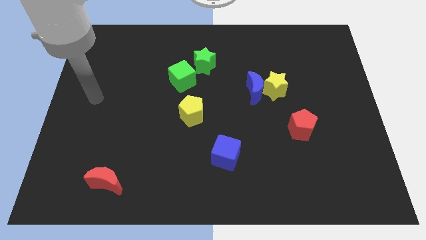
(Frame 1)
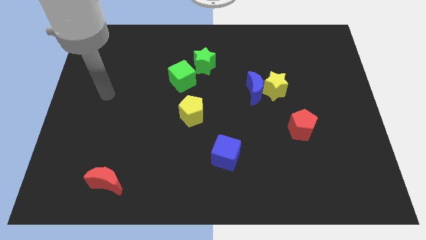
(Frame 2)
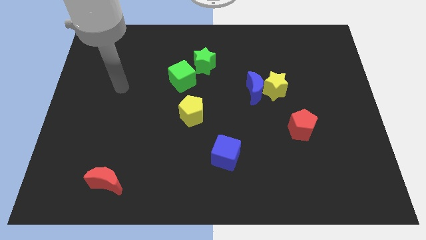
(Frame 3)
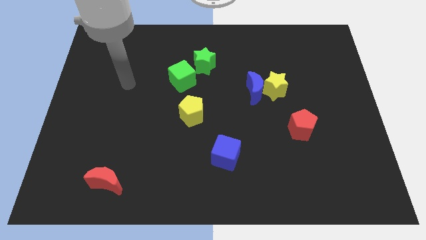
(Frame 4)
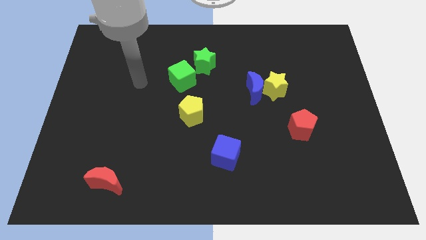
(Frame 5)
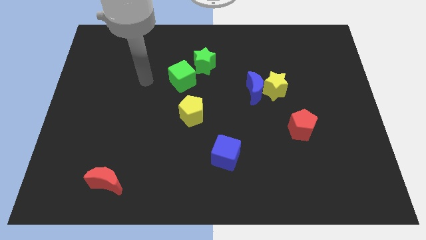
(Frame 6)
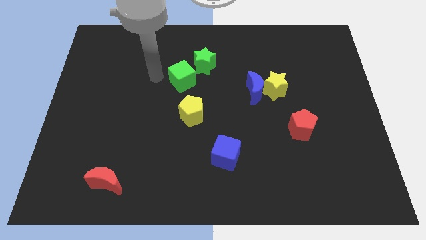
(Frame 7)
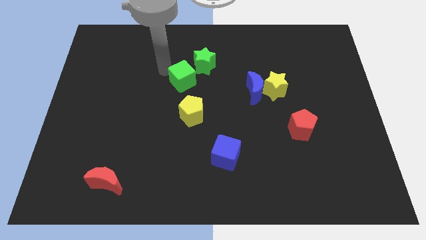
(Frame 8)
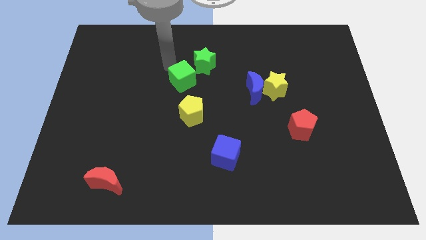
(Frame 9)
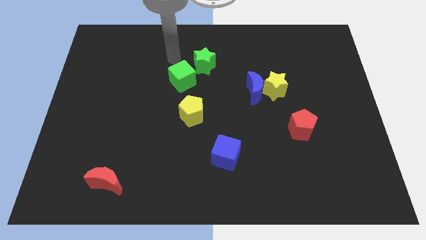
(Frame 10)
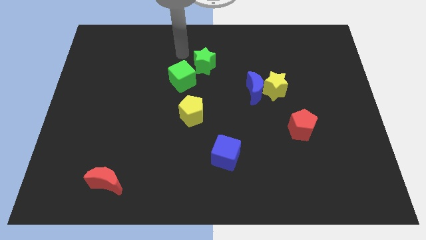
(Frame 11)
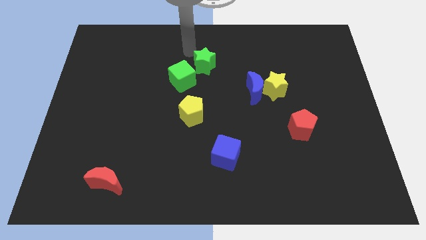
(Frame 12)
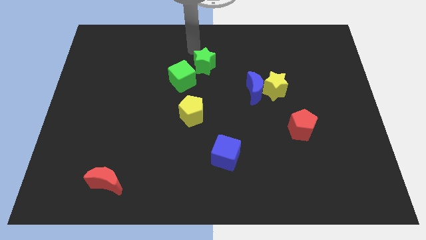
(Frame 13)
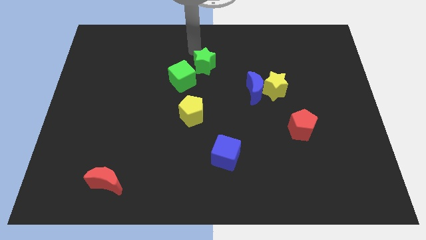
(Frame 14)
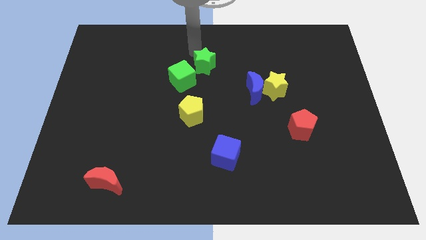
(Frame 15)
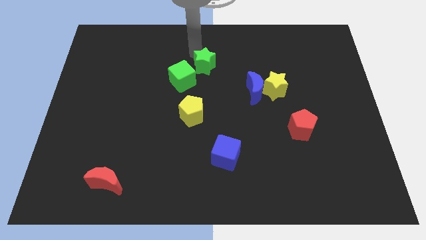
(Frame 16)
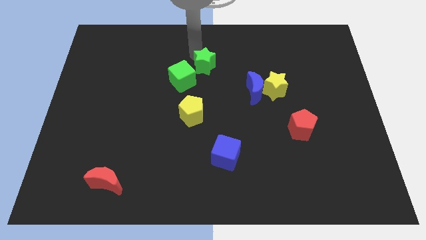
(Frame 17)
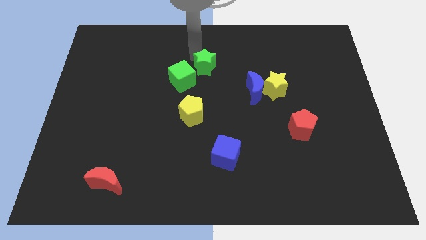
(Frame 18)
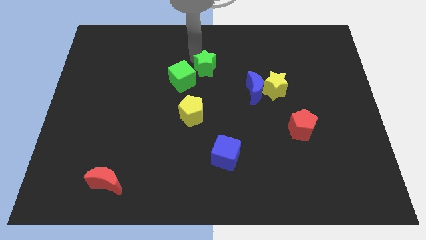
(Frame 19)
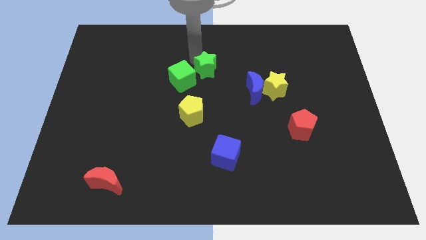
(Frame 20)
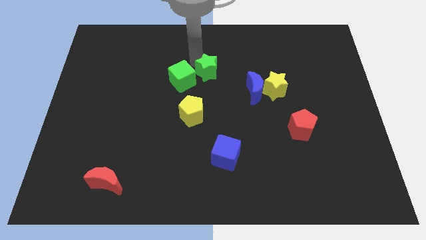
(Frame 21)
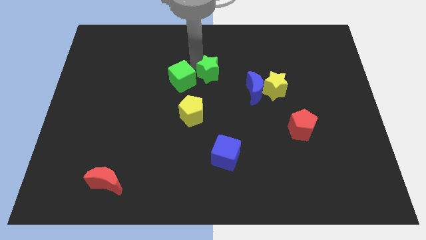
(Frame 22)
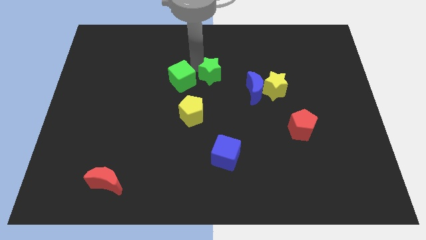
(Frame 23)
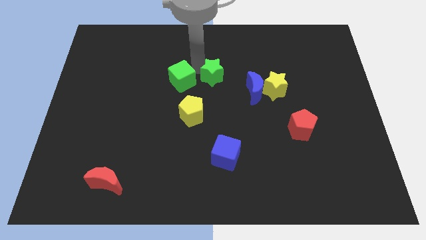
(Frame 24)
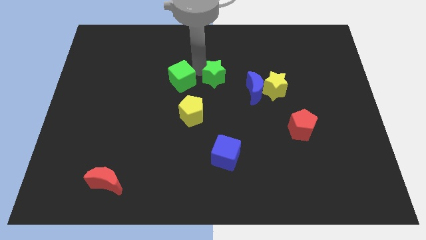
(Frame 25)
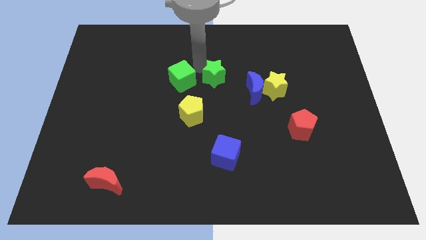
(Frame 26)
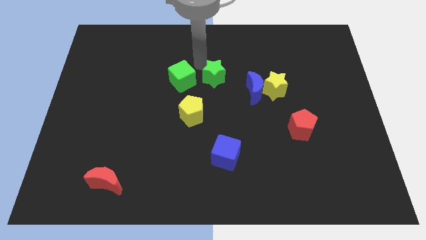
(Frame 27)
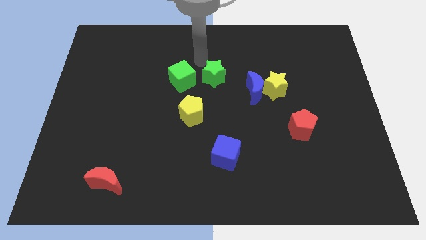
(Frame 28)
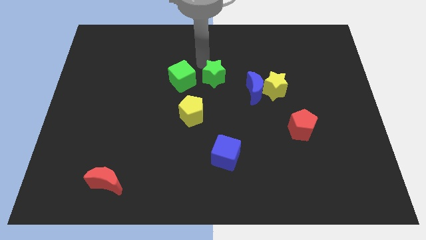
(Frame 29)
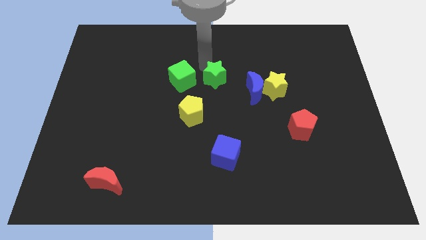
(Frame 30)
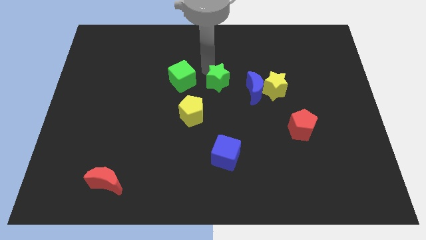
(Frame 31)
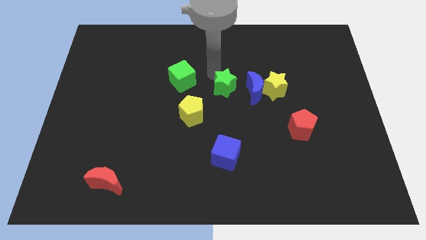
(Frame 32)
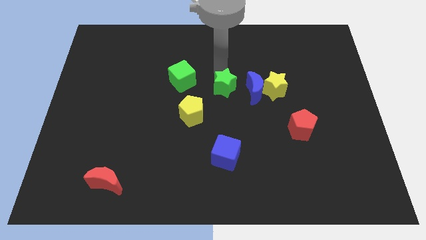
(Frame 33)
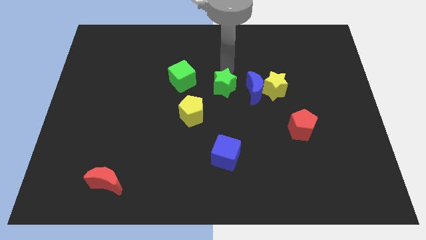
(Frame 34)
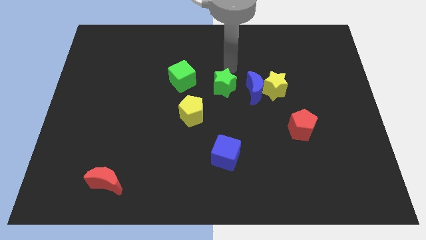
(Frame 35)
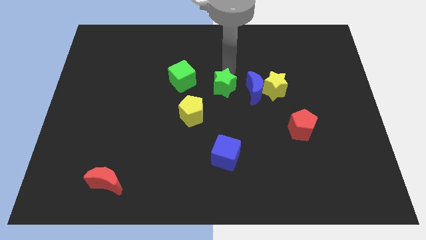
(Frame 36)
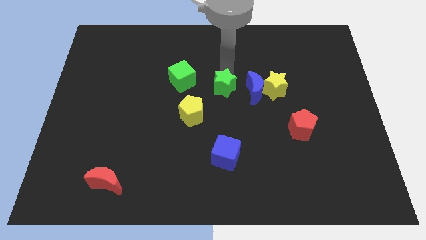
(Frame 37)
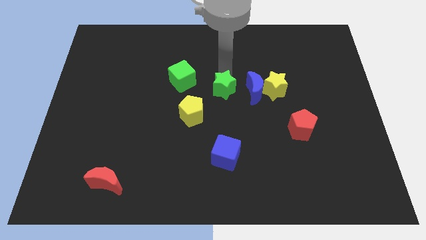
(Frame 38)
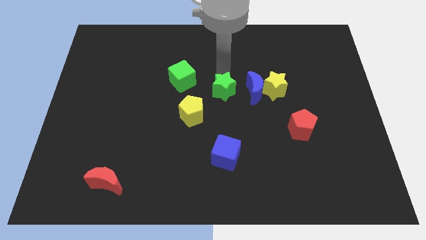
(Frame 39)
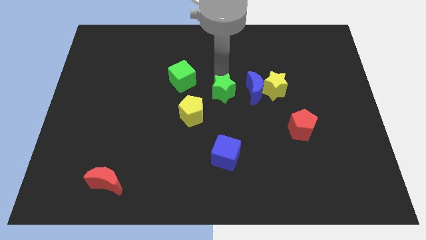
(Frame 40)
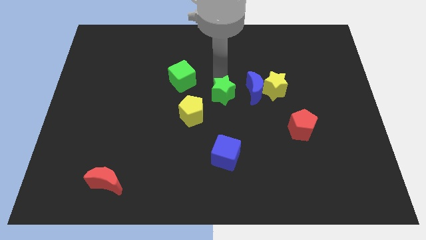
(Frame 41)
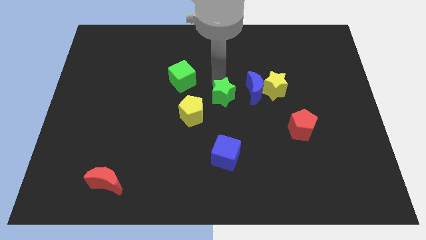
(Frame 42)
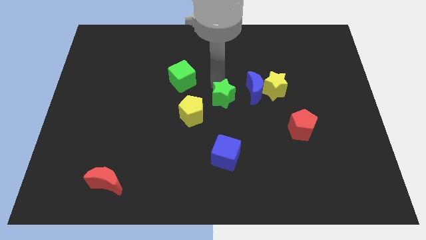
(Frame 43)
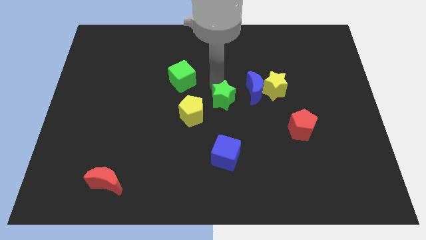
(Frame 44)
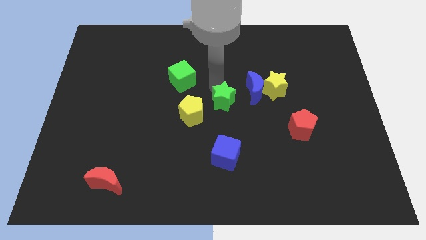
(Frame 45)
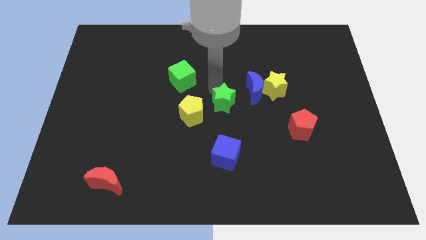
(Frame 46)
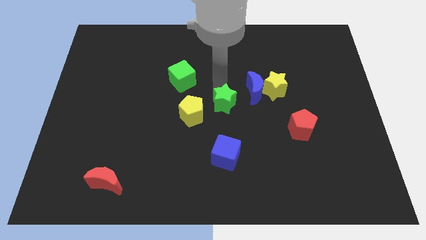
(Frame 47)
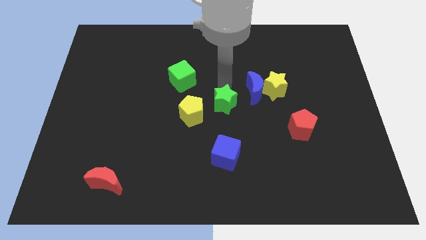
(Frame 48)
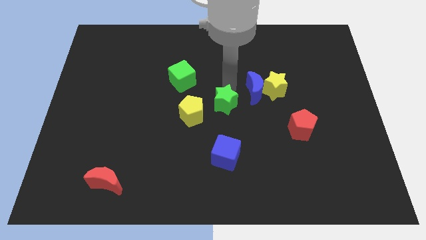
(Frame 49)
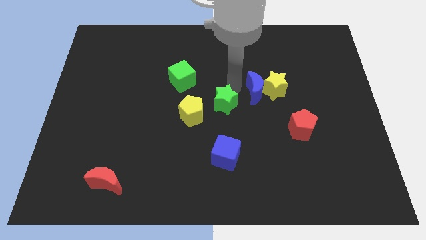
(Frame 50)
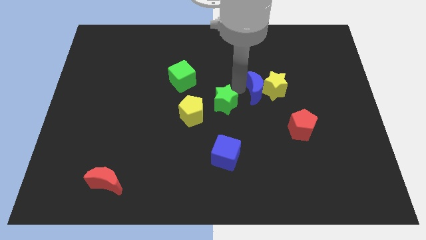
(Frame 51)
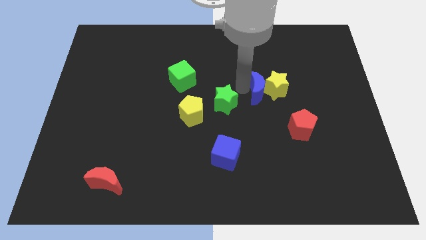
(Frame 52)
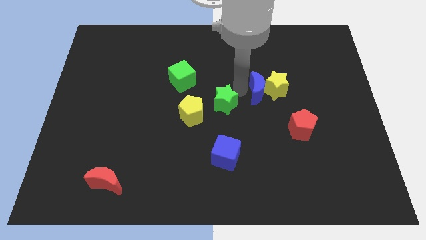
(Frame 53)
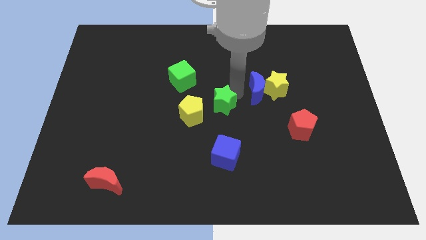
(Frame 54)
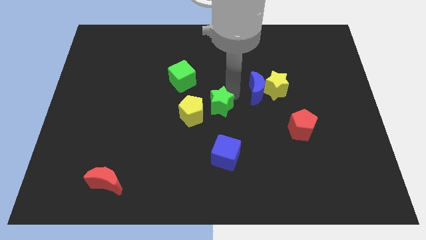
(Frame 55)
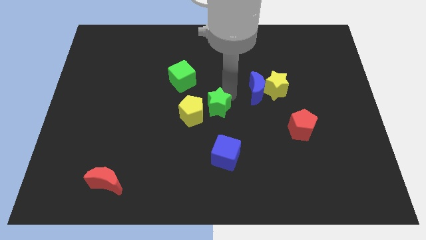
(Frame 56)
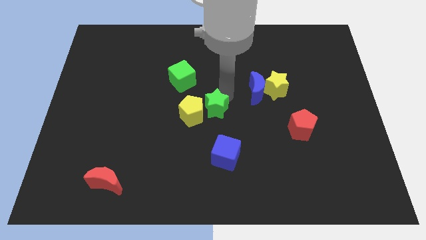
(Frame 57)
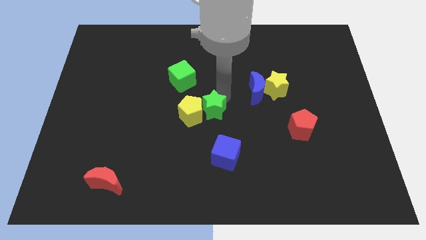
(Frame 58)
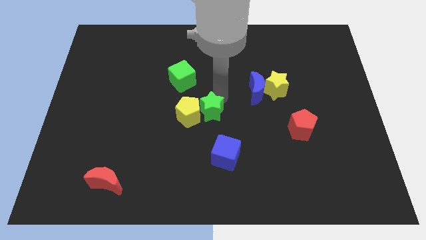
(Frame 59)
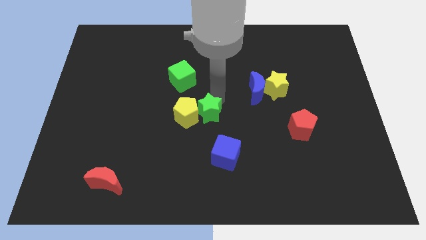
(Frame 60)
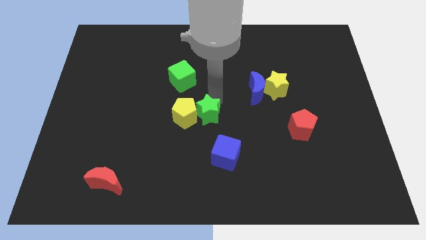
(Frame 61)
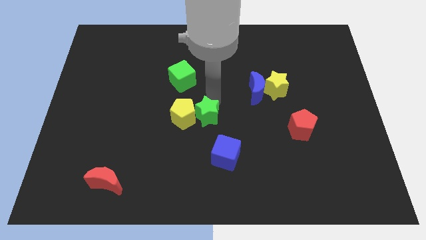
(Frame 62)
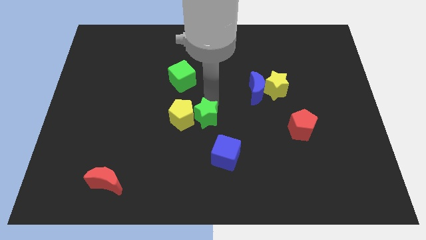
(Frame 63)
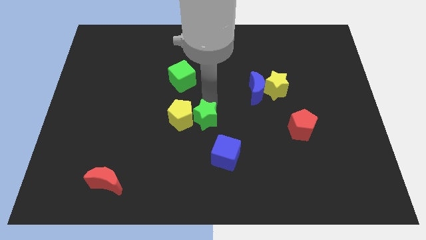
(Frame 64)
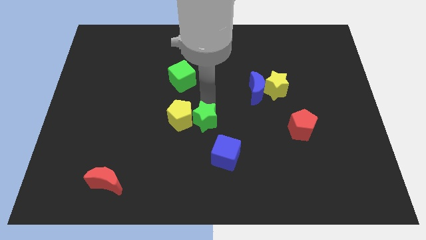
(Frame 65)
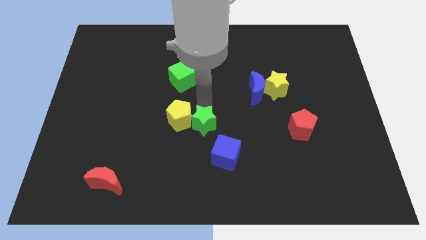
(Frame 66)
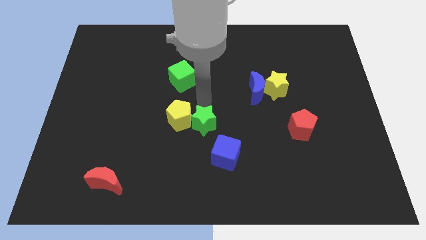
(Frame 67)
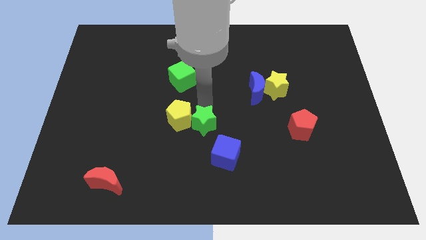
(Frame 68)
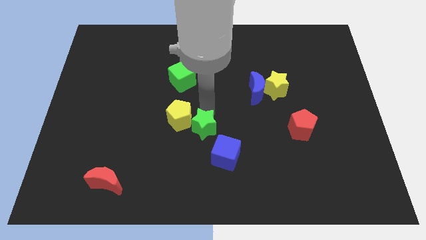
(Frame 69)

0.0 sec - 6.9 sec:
push the green star down

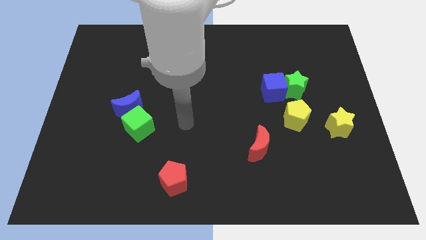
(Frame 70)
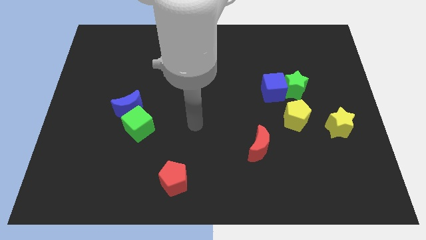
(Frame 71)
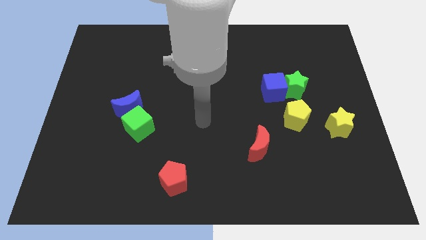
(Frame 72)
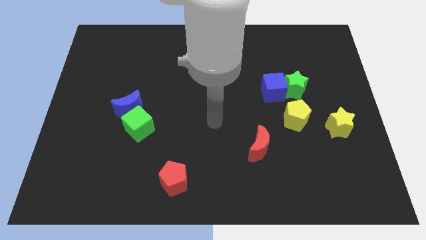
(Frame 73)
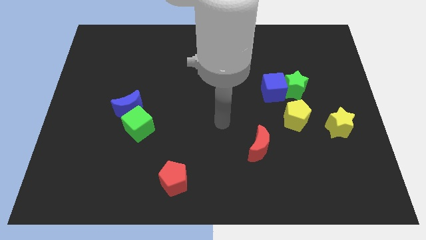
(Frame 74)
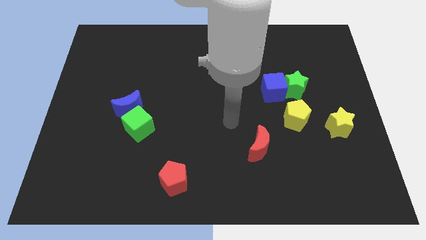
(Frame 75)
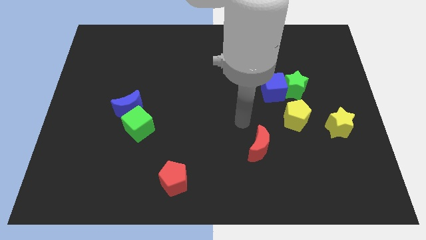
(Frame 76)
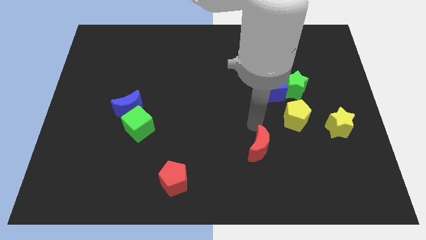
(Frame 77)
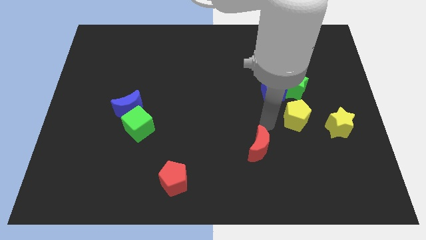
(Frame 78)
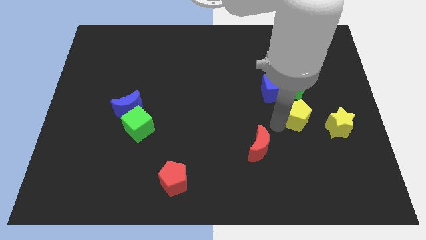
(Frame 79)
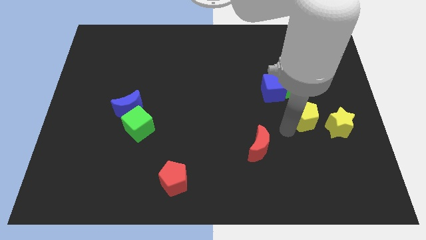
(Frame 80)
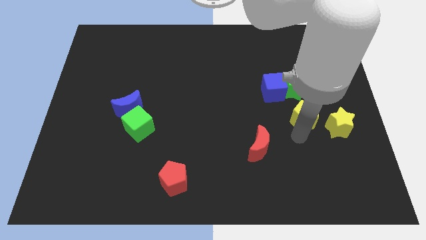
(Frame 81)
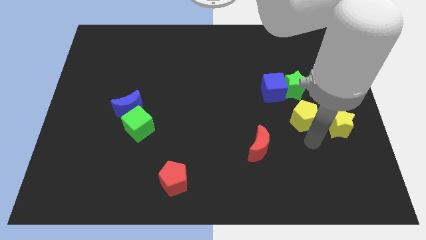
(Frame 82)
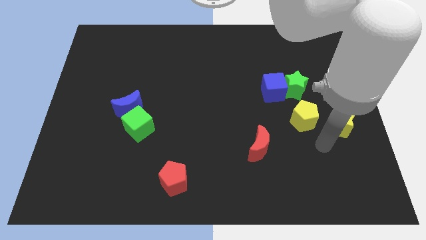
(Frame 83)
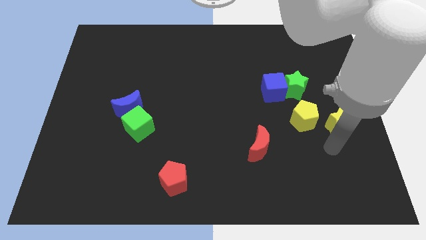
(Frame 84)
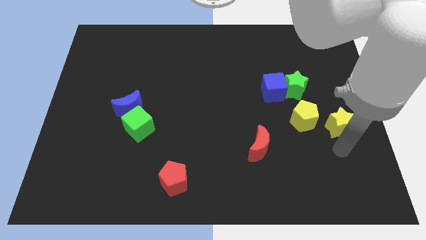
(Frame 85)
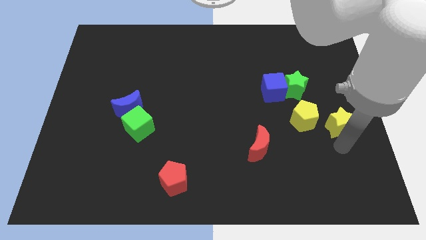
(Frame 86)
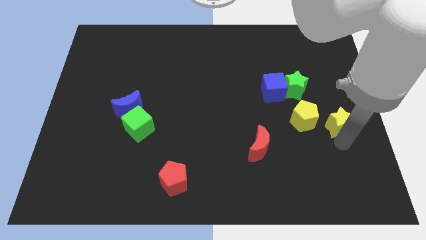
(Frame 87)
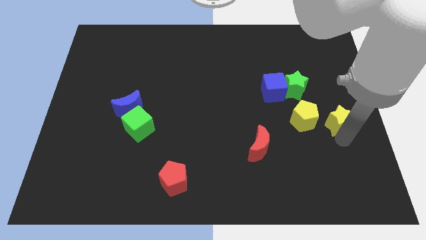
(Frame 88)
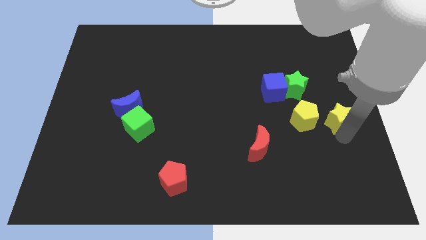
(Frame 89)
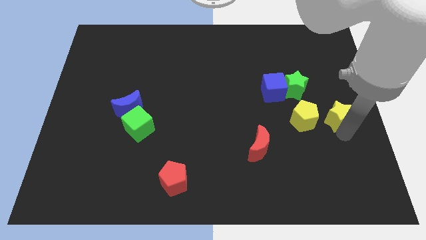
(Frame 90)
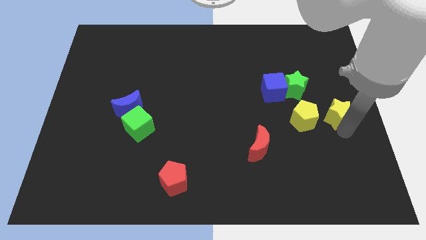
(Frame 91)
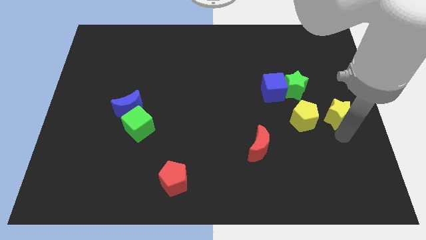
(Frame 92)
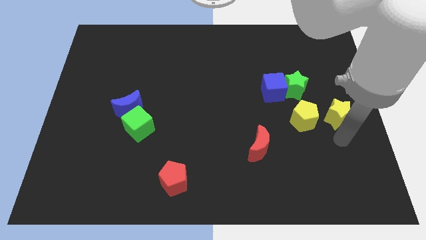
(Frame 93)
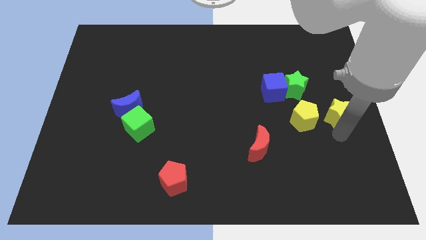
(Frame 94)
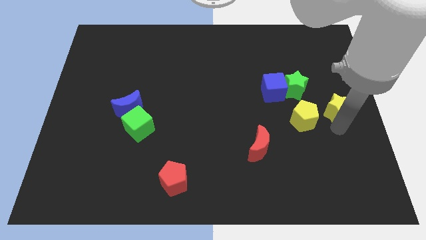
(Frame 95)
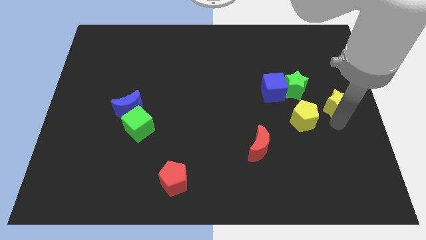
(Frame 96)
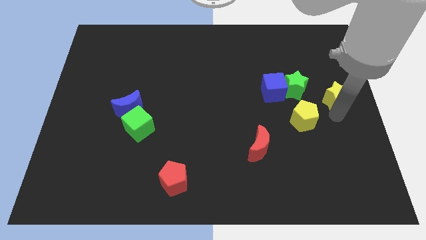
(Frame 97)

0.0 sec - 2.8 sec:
slide the yellow star a bit up
